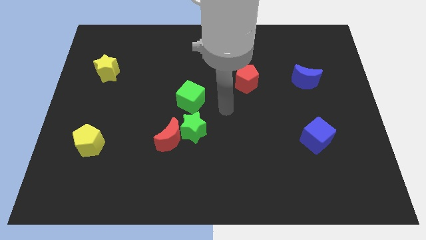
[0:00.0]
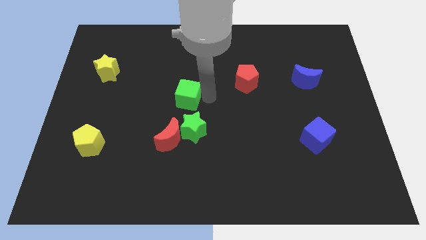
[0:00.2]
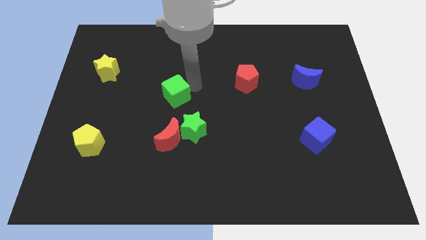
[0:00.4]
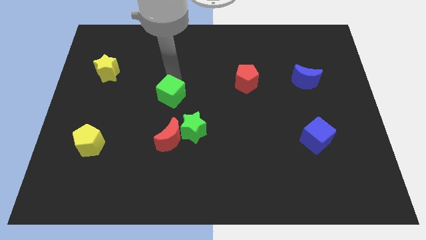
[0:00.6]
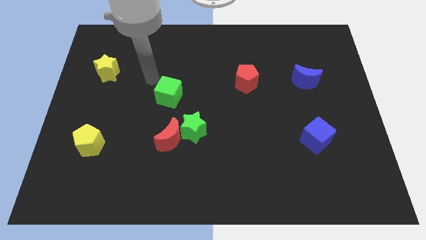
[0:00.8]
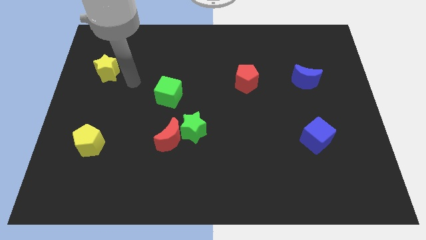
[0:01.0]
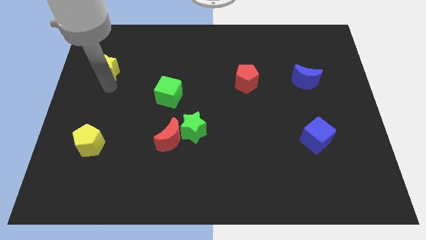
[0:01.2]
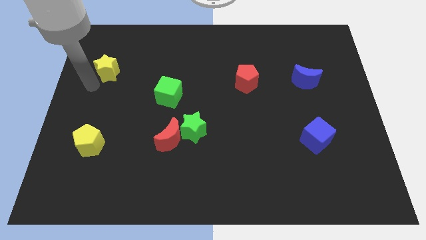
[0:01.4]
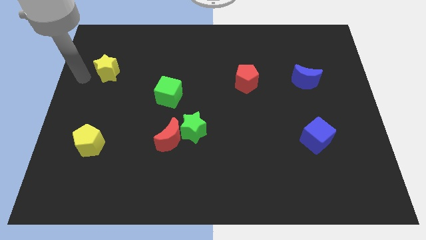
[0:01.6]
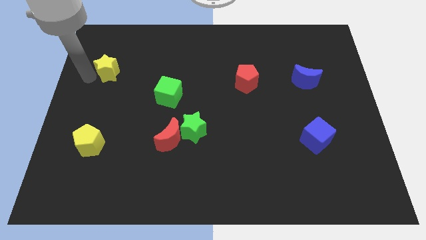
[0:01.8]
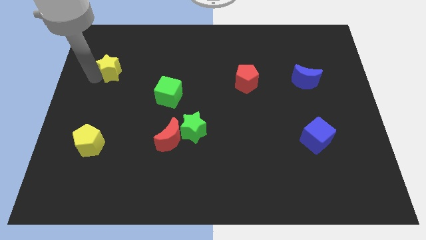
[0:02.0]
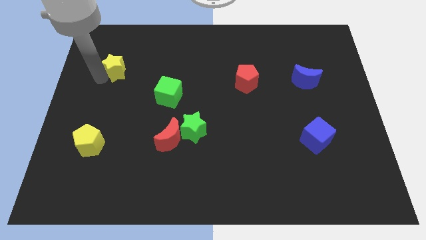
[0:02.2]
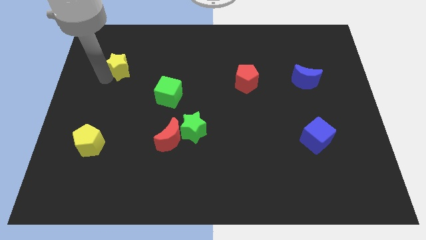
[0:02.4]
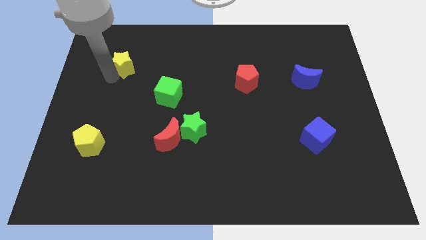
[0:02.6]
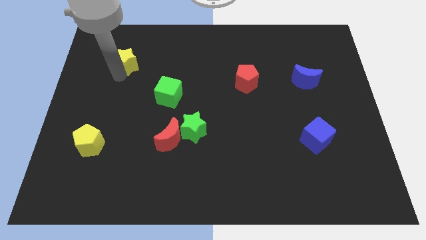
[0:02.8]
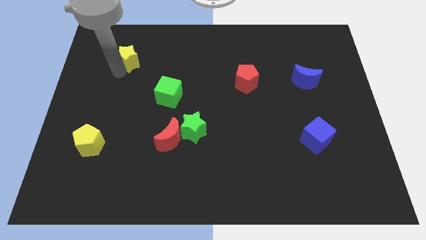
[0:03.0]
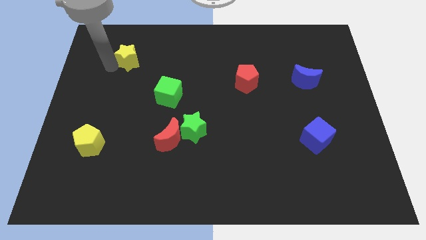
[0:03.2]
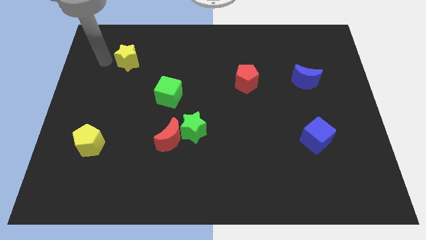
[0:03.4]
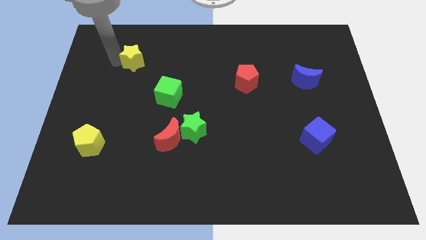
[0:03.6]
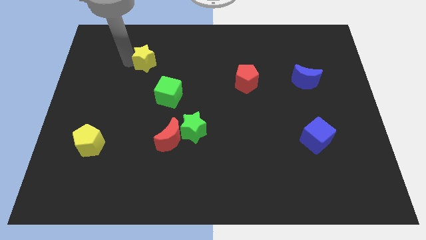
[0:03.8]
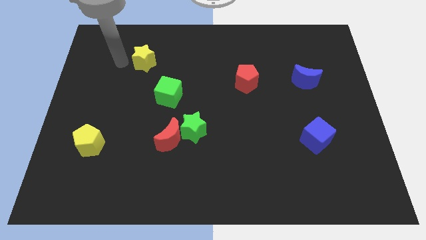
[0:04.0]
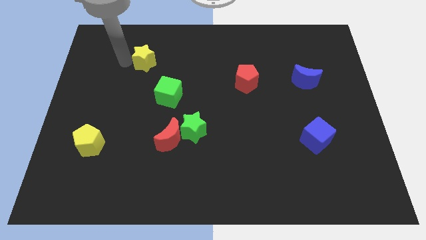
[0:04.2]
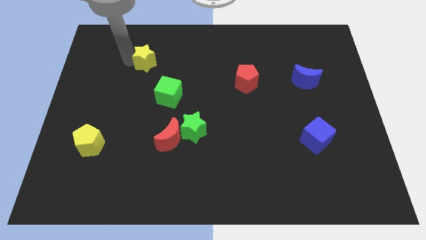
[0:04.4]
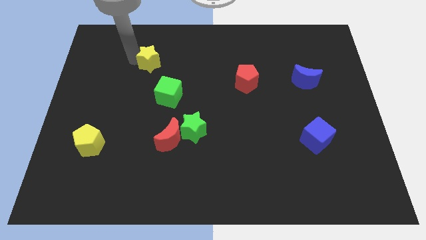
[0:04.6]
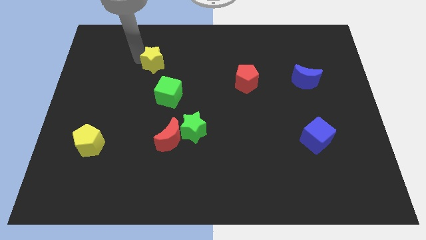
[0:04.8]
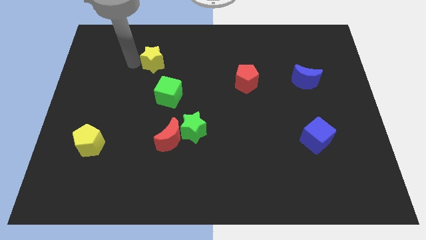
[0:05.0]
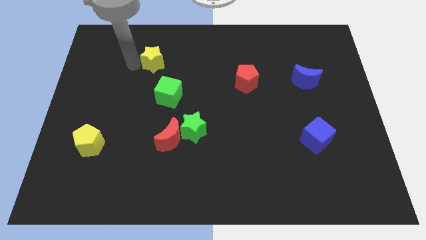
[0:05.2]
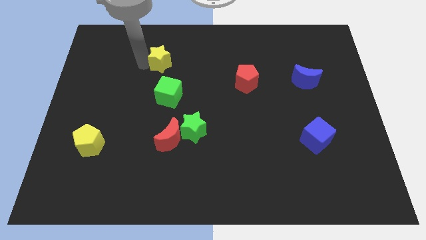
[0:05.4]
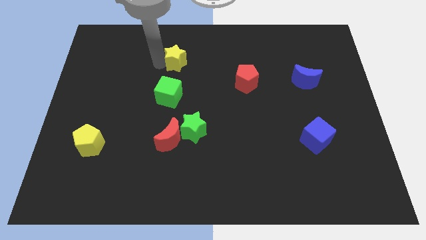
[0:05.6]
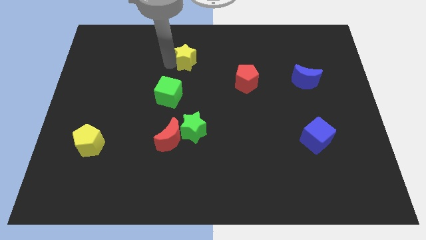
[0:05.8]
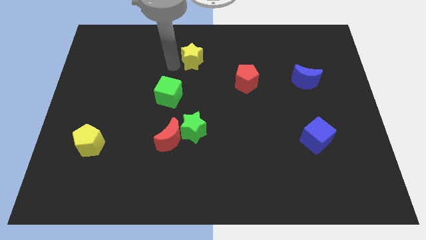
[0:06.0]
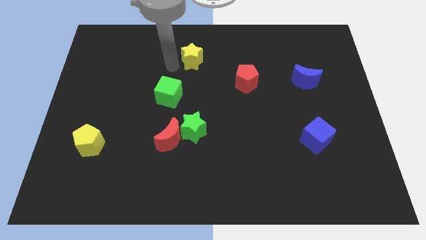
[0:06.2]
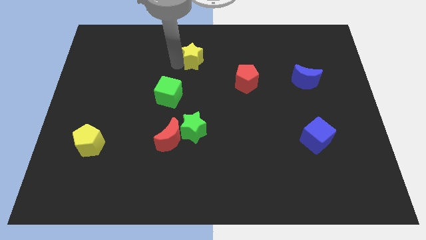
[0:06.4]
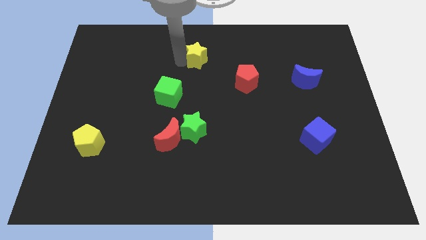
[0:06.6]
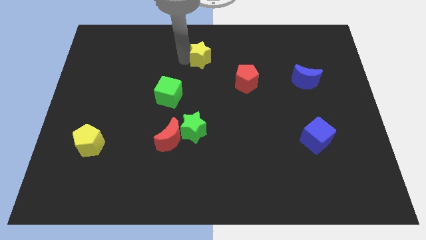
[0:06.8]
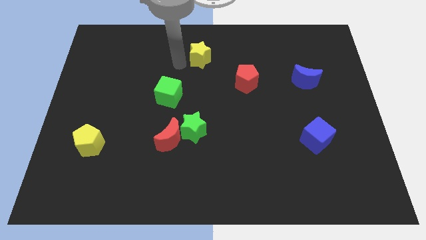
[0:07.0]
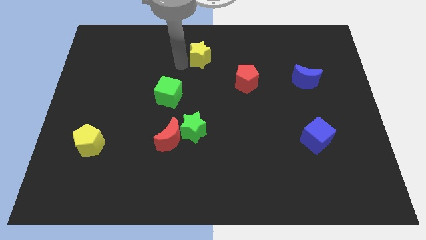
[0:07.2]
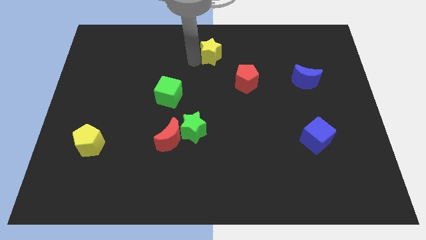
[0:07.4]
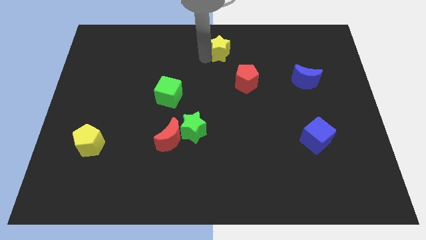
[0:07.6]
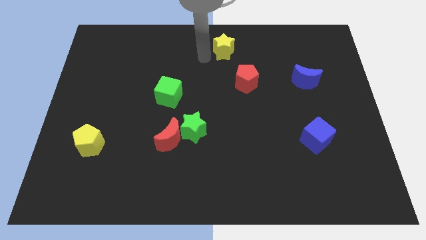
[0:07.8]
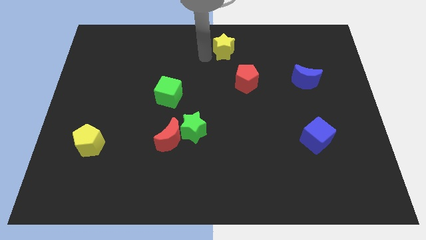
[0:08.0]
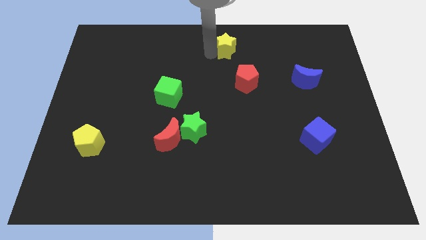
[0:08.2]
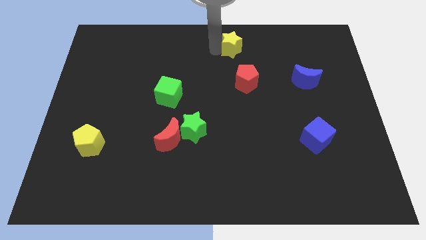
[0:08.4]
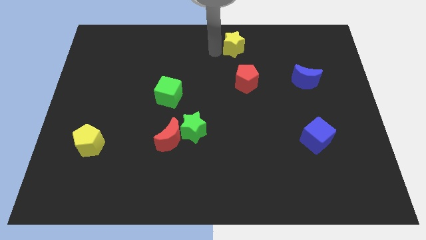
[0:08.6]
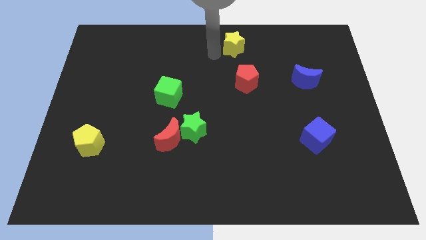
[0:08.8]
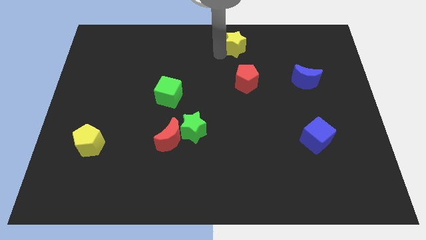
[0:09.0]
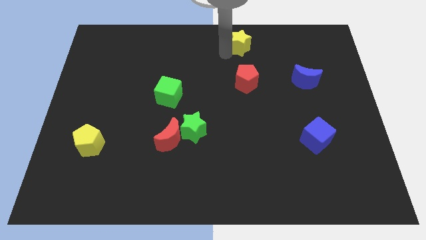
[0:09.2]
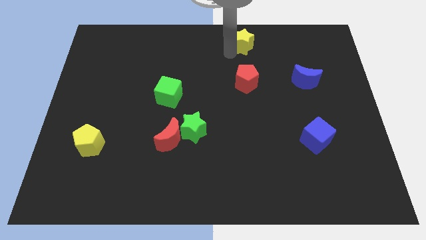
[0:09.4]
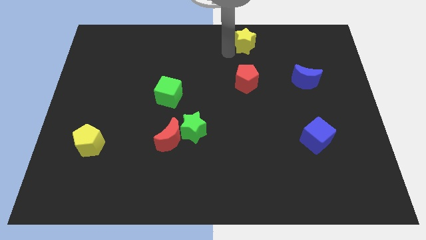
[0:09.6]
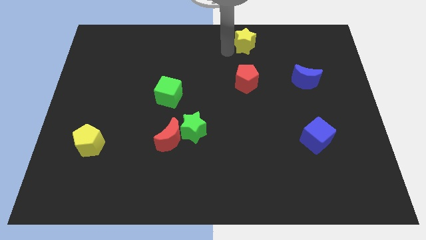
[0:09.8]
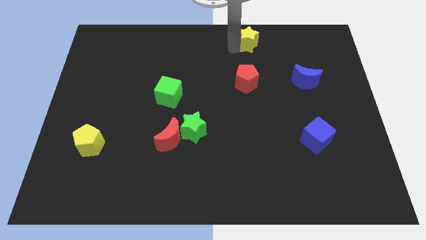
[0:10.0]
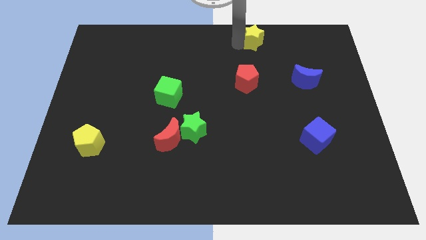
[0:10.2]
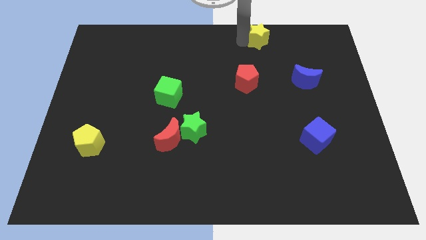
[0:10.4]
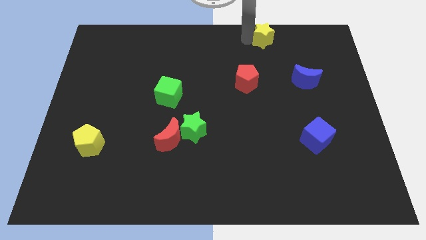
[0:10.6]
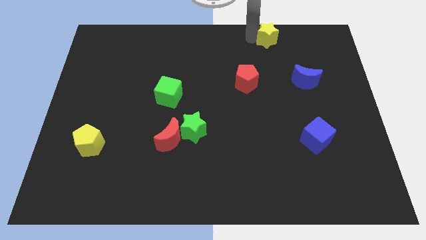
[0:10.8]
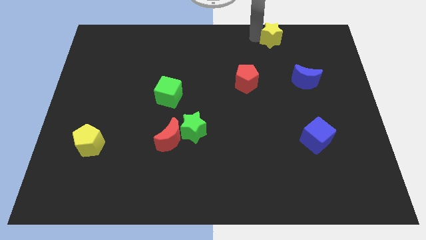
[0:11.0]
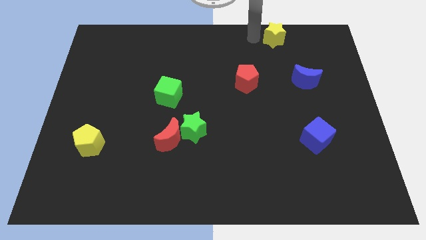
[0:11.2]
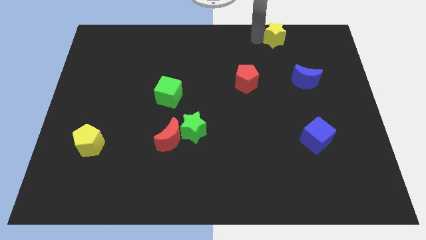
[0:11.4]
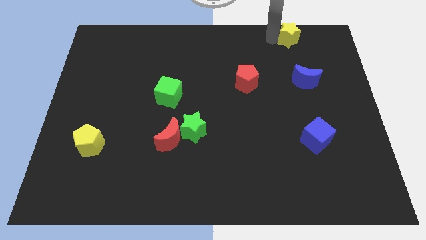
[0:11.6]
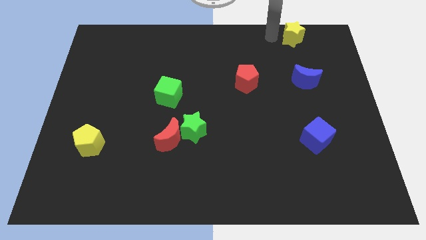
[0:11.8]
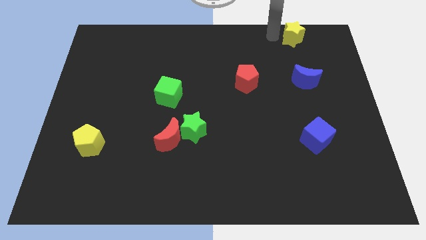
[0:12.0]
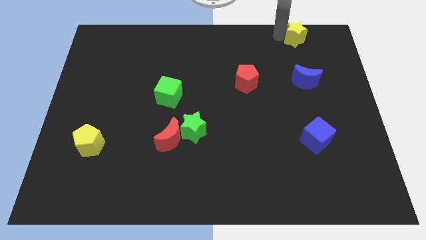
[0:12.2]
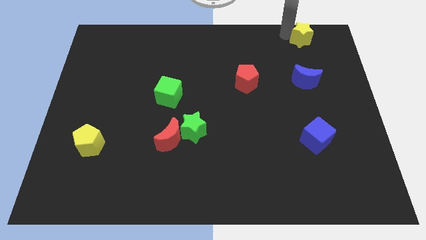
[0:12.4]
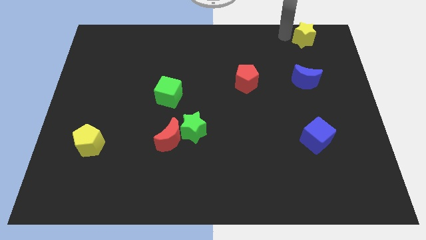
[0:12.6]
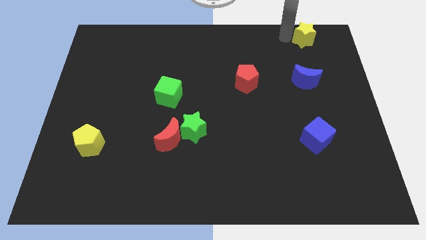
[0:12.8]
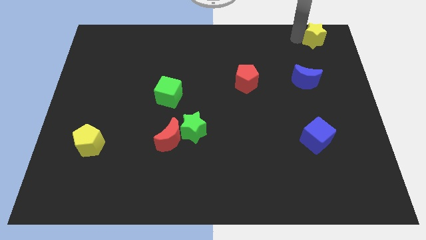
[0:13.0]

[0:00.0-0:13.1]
push the yellow star to the top right

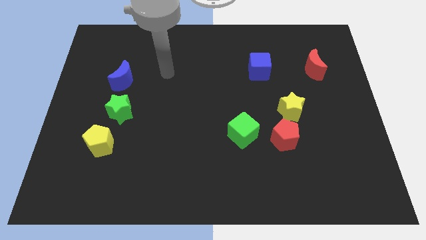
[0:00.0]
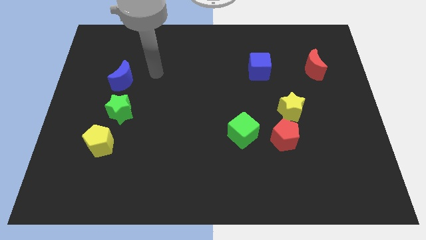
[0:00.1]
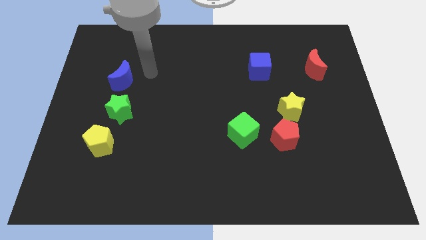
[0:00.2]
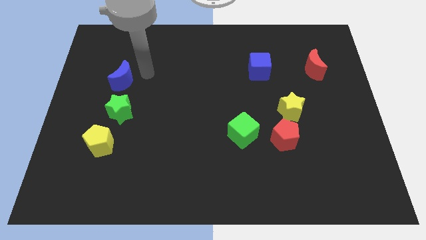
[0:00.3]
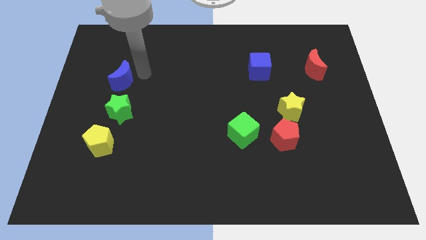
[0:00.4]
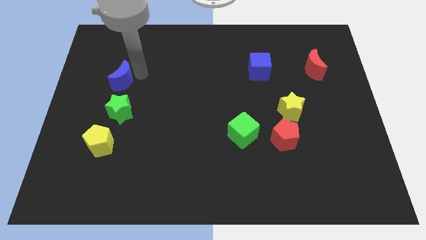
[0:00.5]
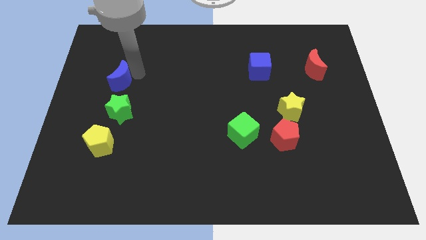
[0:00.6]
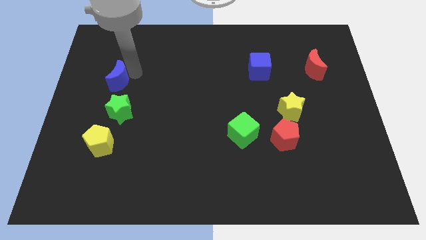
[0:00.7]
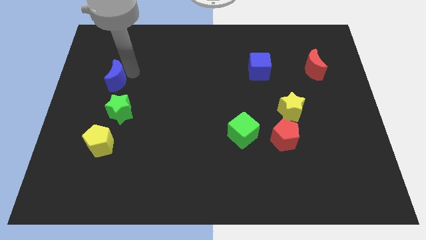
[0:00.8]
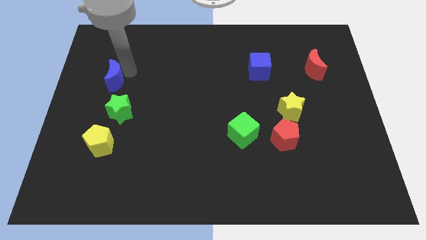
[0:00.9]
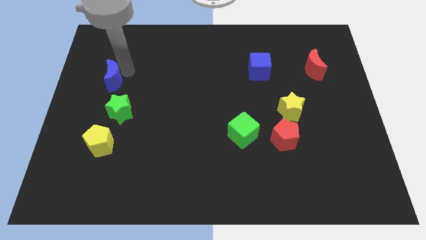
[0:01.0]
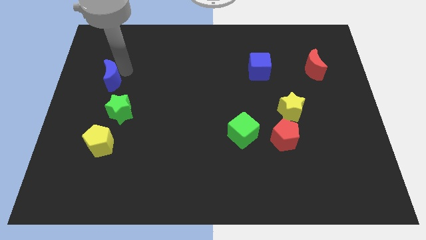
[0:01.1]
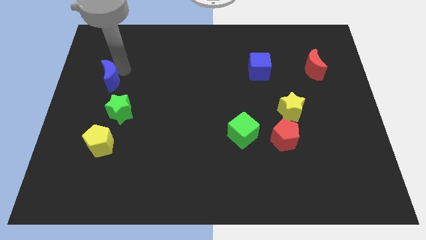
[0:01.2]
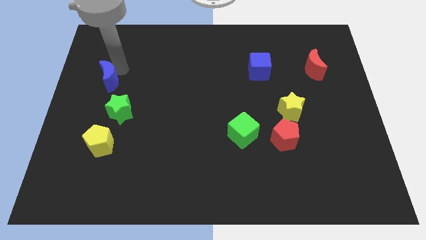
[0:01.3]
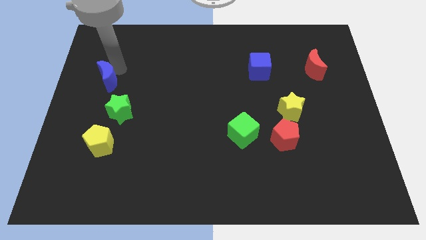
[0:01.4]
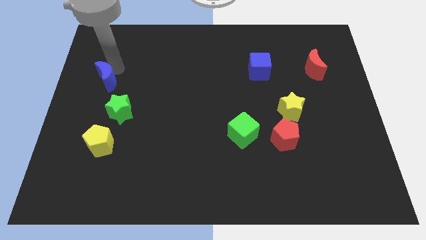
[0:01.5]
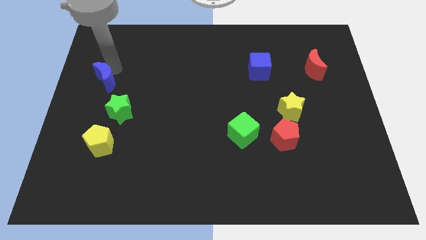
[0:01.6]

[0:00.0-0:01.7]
put the blue moon to the center left
